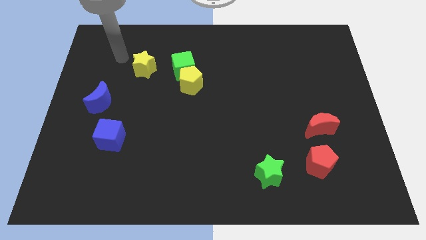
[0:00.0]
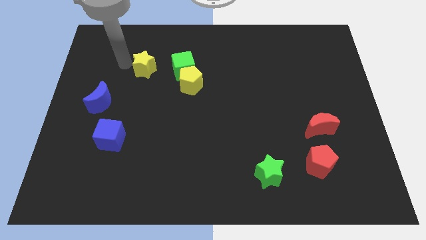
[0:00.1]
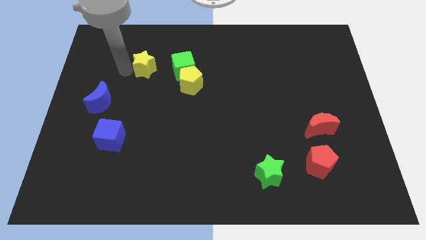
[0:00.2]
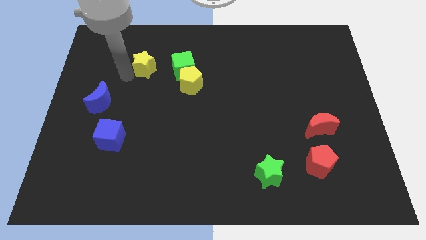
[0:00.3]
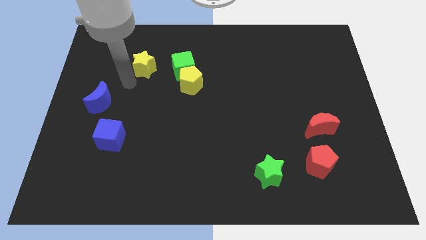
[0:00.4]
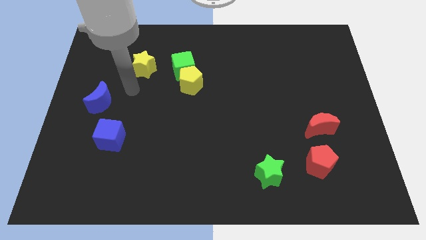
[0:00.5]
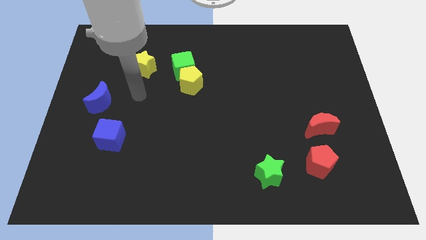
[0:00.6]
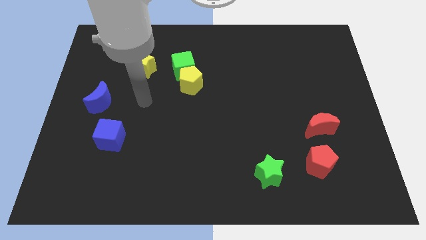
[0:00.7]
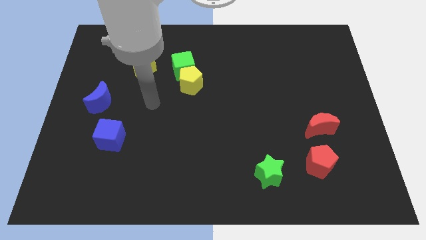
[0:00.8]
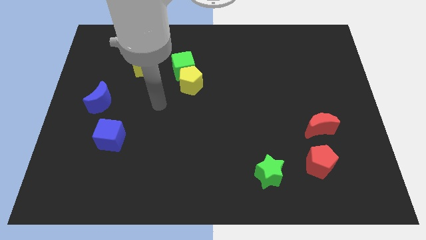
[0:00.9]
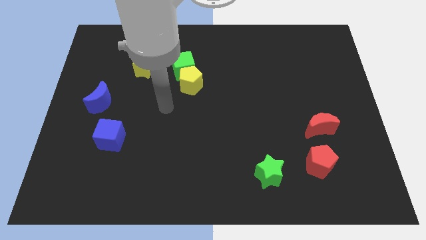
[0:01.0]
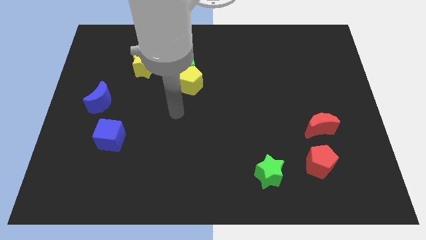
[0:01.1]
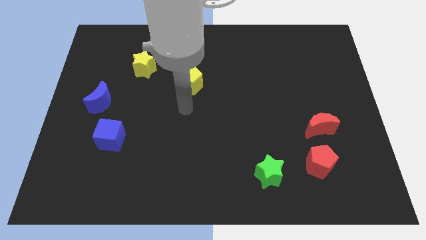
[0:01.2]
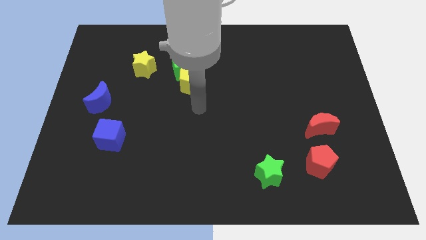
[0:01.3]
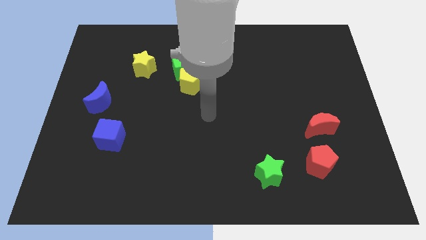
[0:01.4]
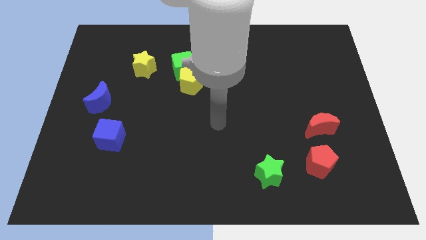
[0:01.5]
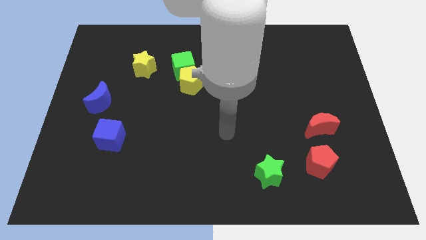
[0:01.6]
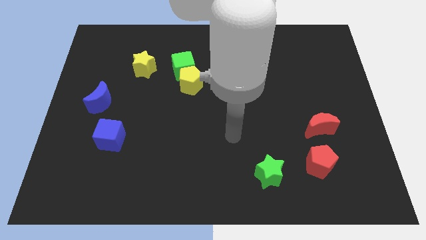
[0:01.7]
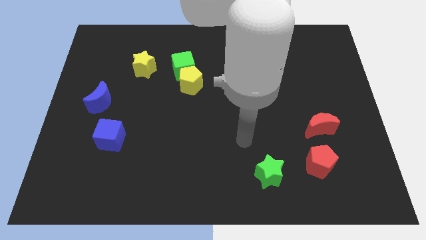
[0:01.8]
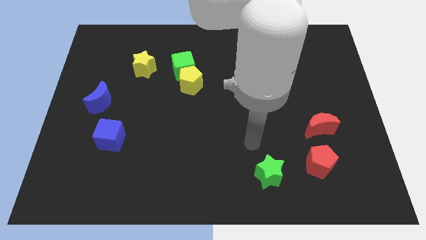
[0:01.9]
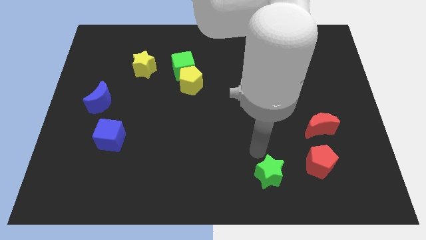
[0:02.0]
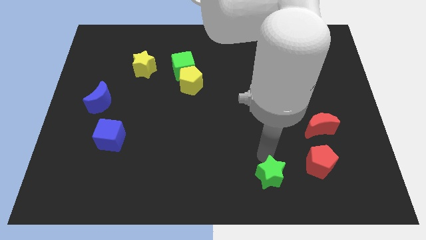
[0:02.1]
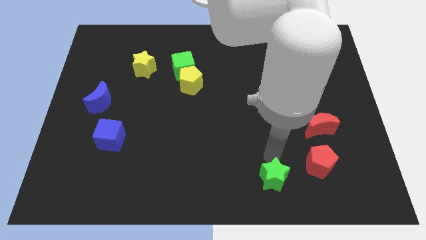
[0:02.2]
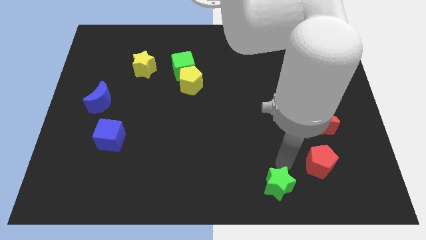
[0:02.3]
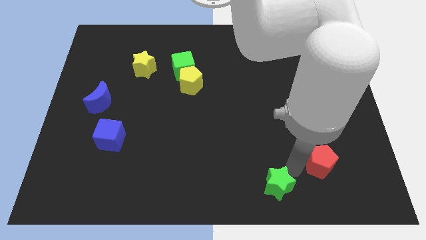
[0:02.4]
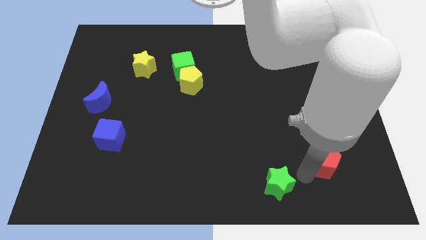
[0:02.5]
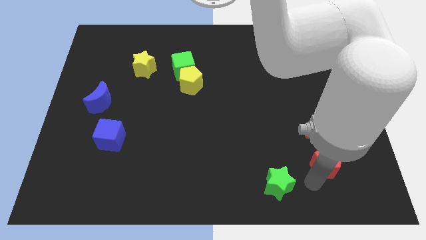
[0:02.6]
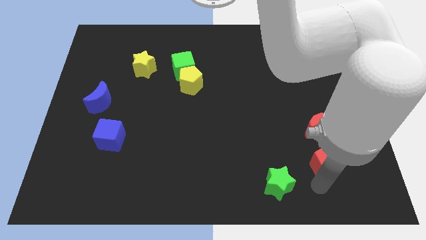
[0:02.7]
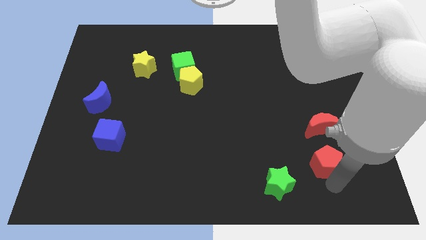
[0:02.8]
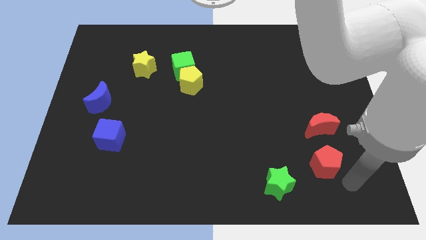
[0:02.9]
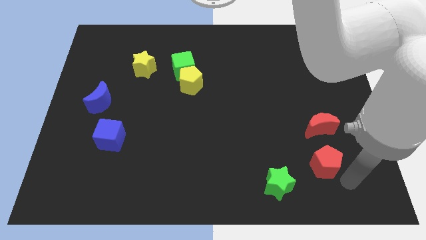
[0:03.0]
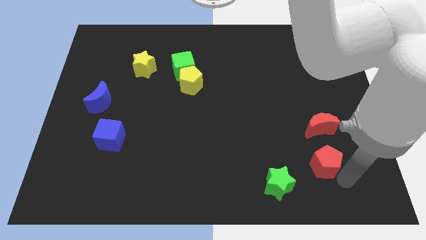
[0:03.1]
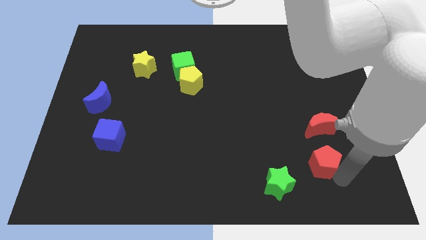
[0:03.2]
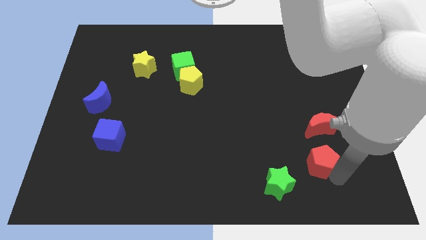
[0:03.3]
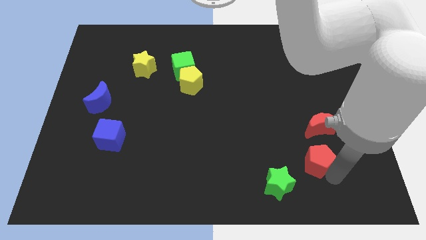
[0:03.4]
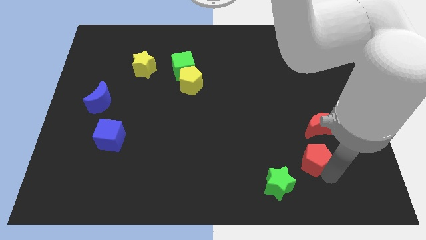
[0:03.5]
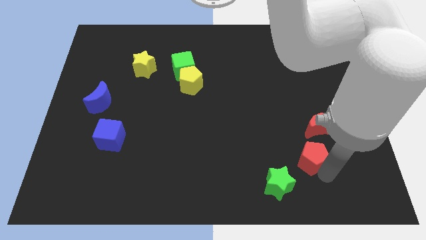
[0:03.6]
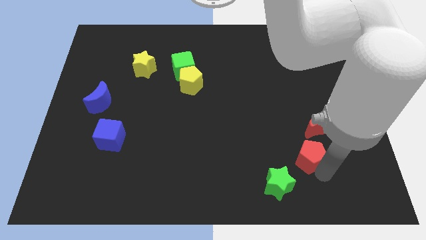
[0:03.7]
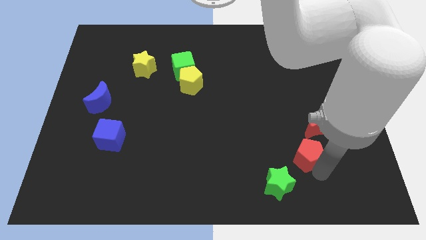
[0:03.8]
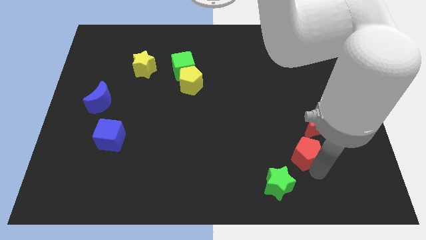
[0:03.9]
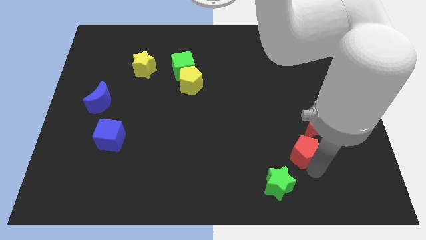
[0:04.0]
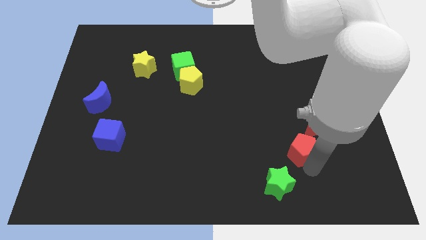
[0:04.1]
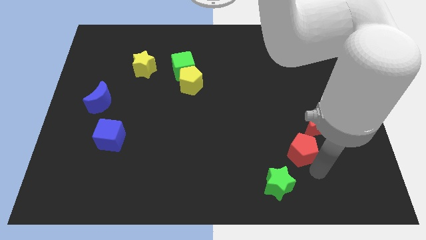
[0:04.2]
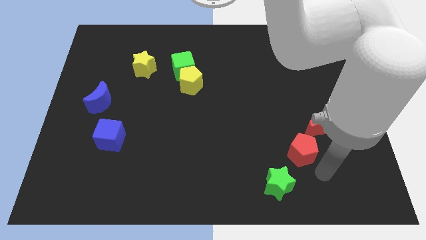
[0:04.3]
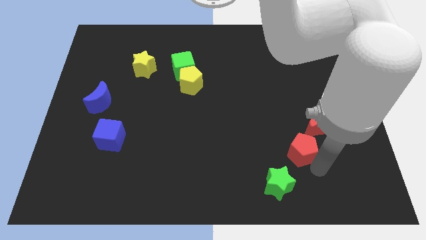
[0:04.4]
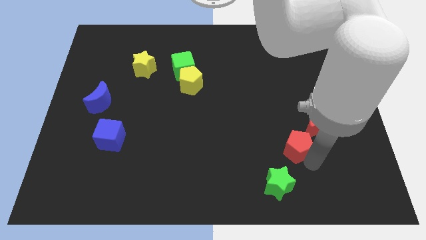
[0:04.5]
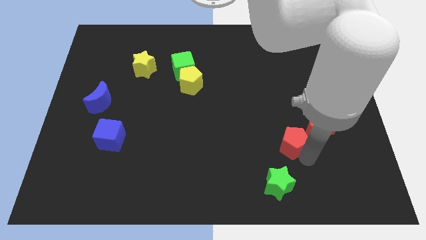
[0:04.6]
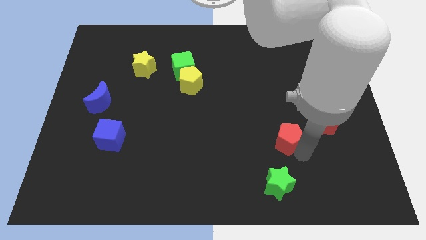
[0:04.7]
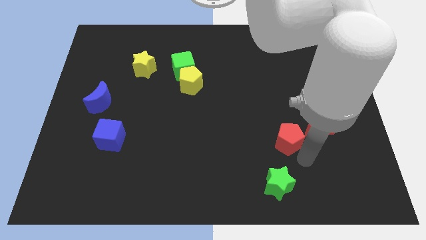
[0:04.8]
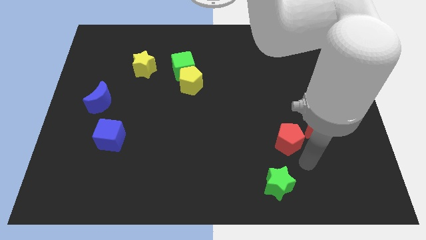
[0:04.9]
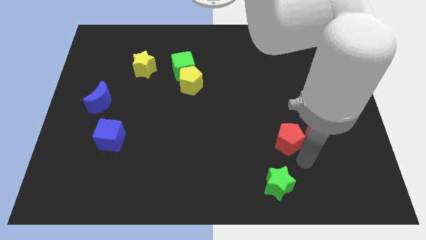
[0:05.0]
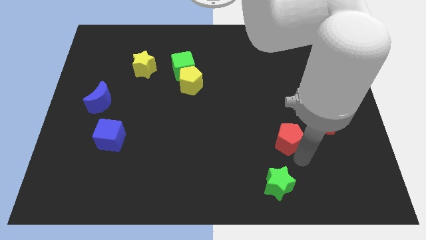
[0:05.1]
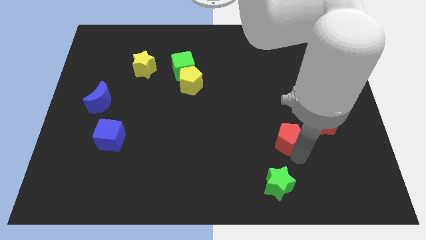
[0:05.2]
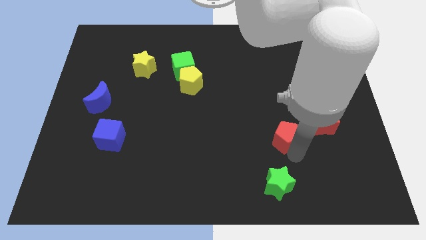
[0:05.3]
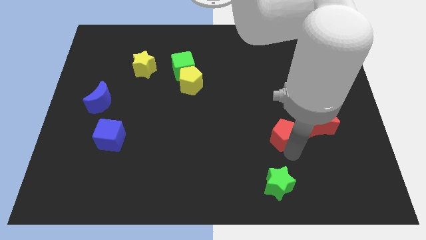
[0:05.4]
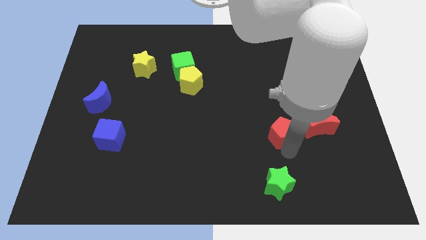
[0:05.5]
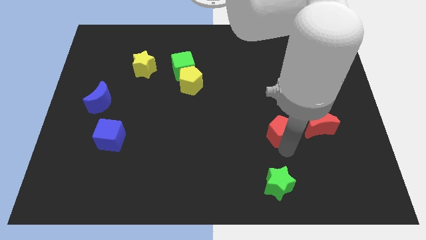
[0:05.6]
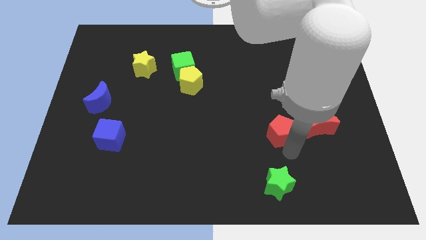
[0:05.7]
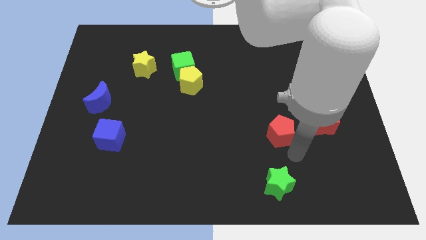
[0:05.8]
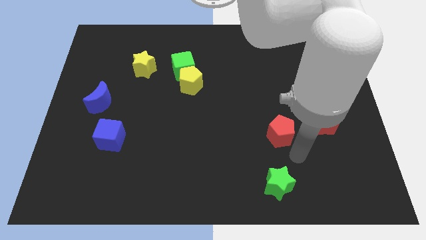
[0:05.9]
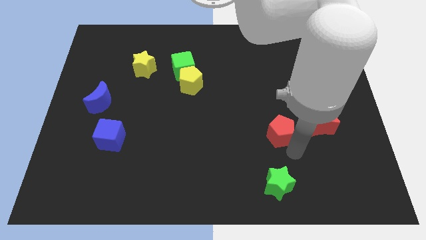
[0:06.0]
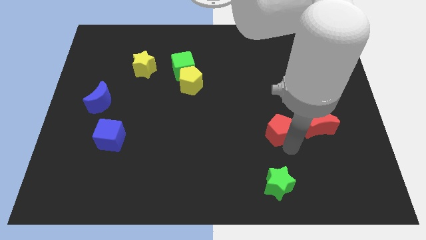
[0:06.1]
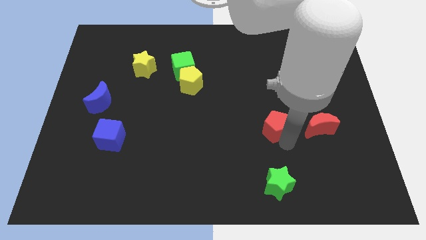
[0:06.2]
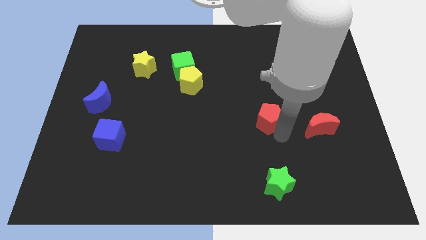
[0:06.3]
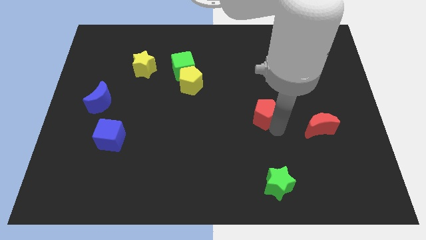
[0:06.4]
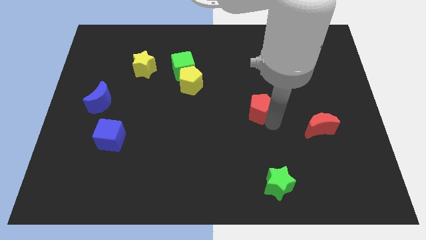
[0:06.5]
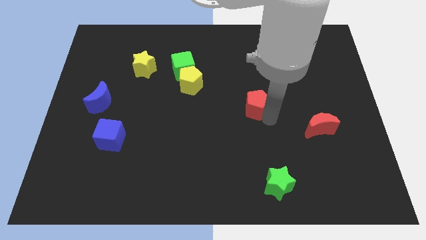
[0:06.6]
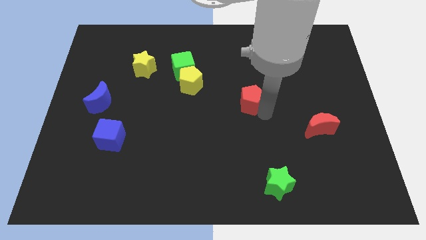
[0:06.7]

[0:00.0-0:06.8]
push the red pentagon upwards and left

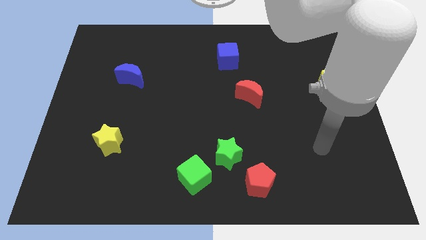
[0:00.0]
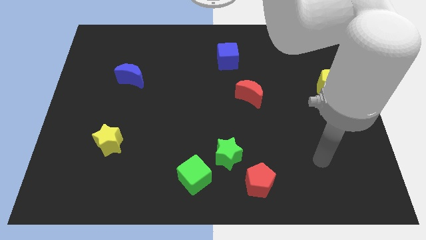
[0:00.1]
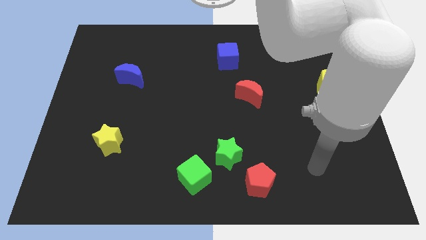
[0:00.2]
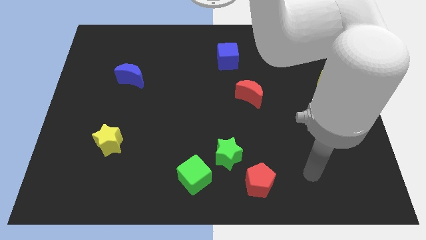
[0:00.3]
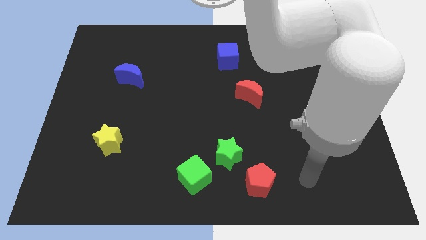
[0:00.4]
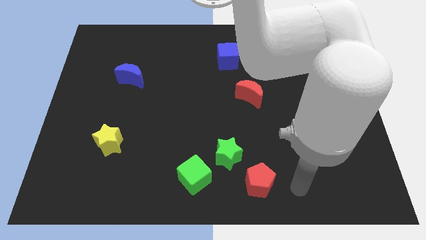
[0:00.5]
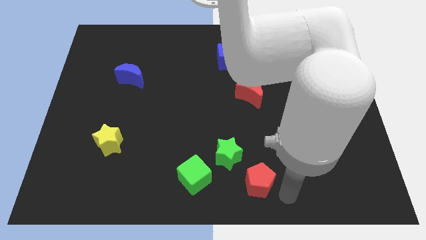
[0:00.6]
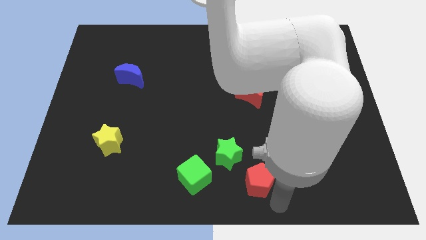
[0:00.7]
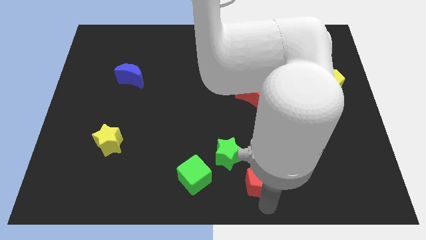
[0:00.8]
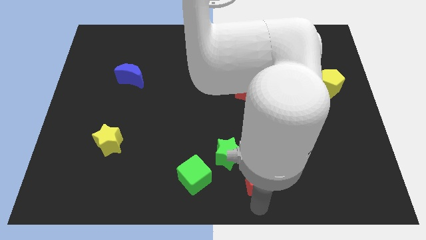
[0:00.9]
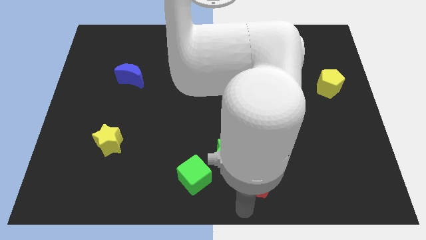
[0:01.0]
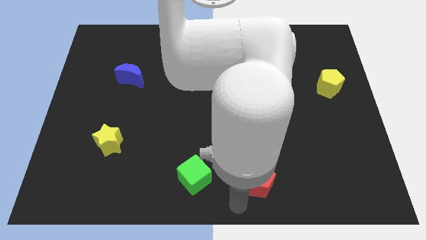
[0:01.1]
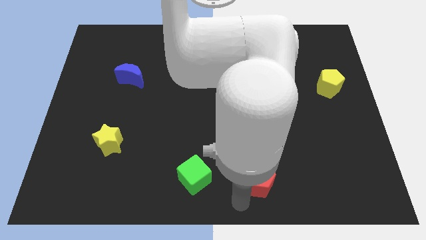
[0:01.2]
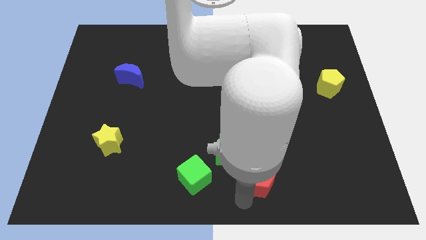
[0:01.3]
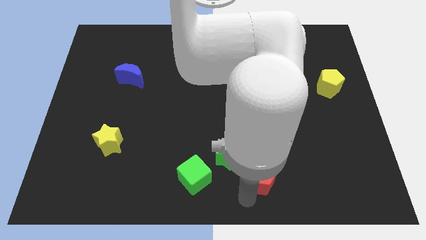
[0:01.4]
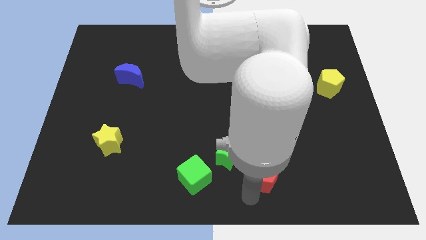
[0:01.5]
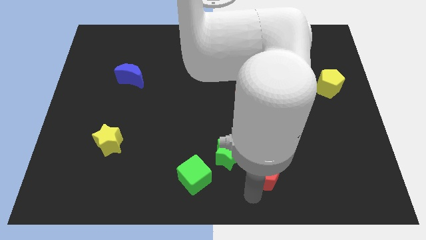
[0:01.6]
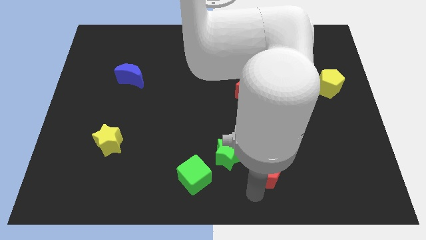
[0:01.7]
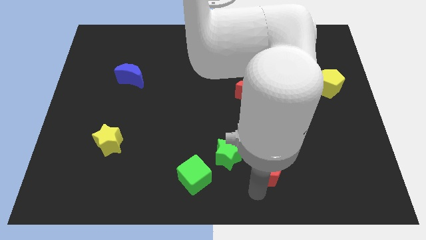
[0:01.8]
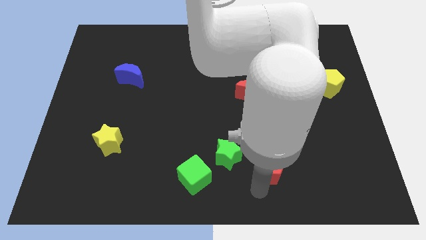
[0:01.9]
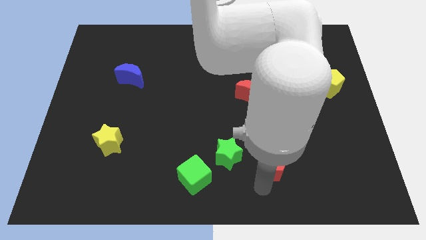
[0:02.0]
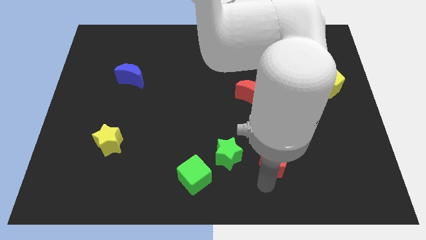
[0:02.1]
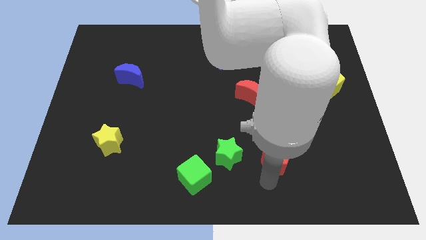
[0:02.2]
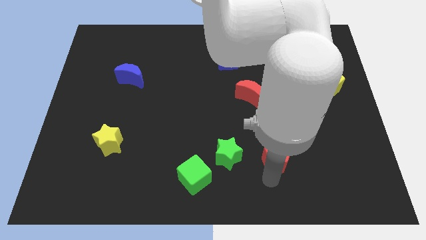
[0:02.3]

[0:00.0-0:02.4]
slightly move the red pentagon up and right diagonally
